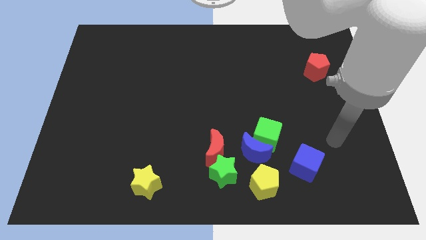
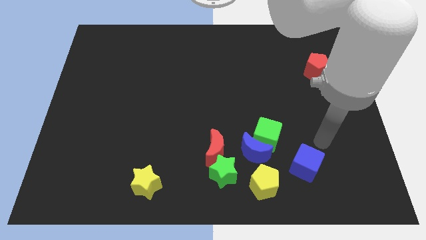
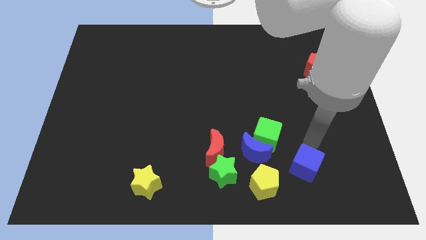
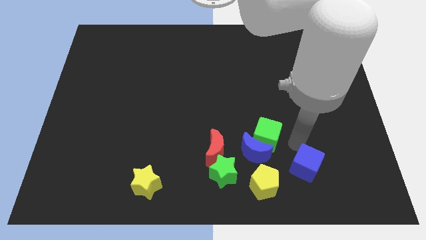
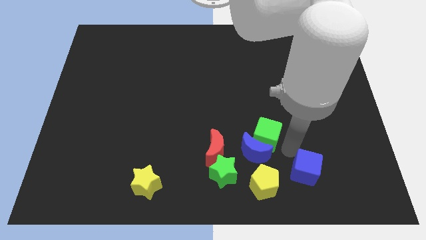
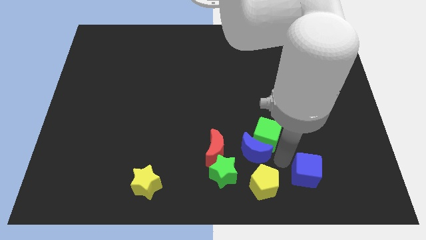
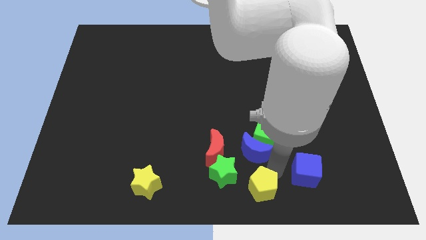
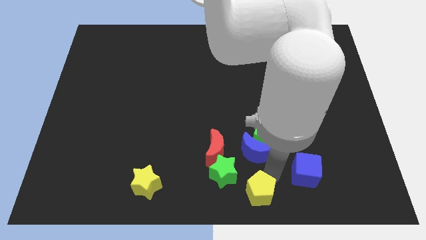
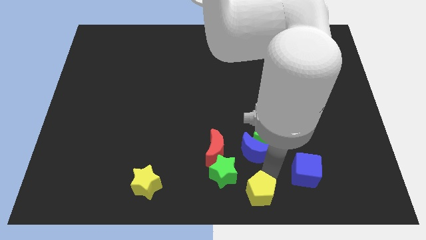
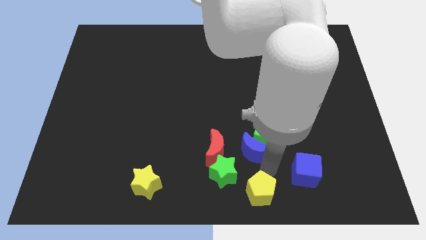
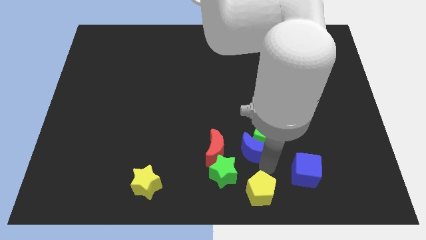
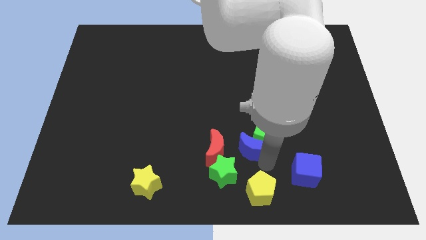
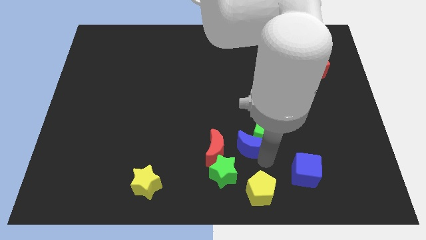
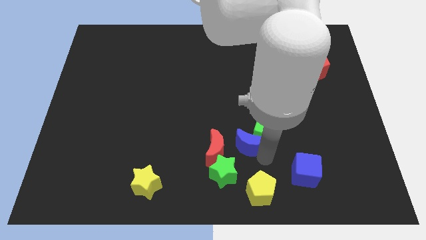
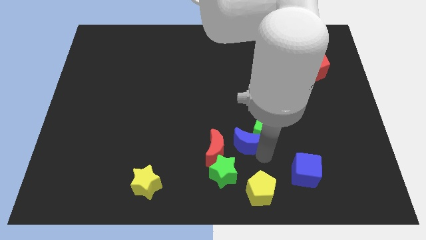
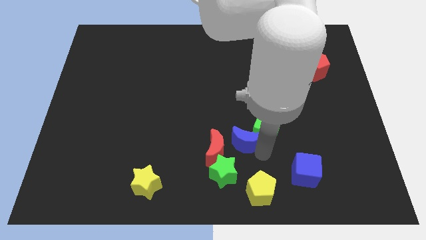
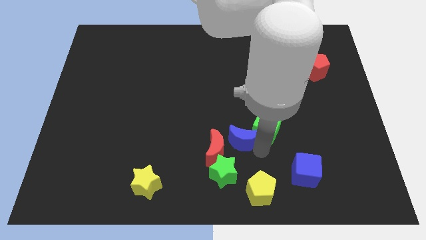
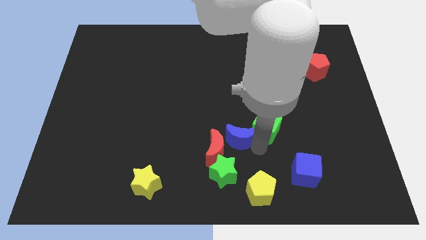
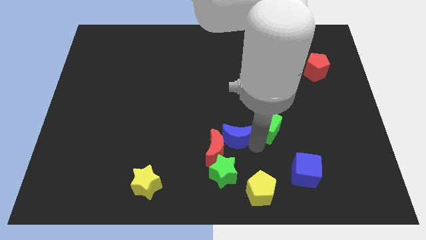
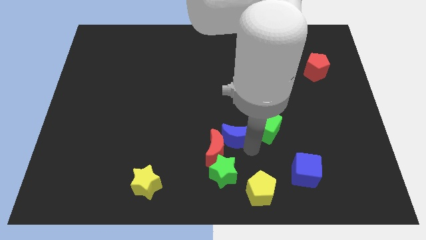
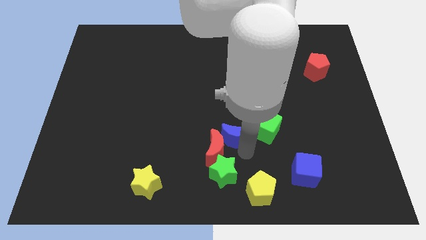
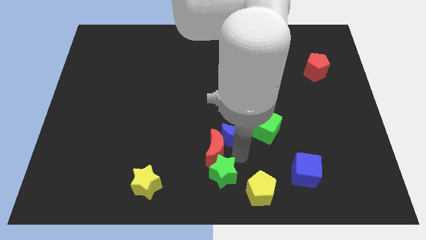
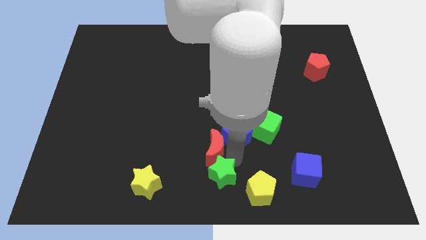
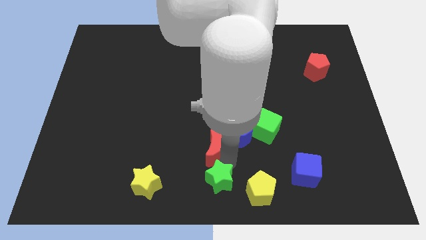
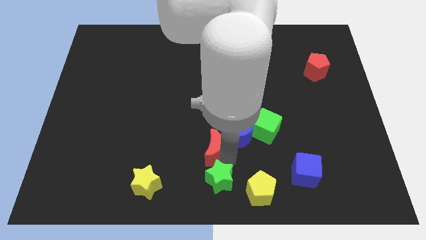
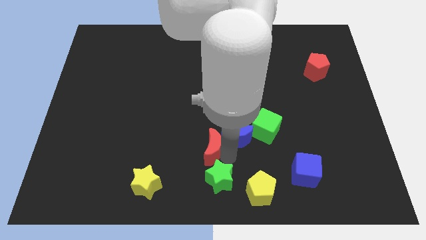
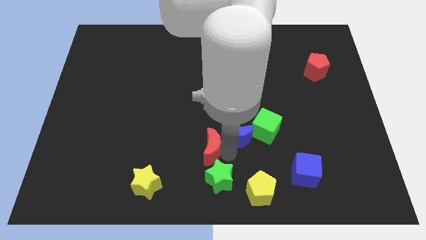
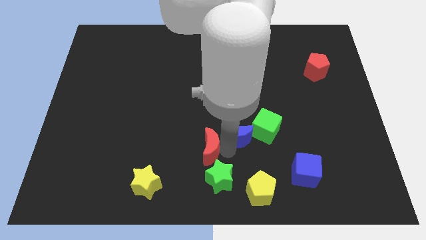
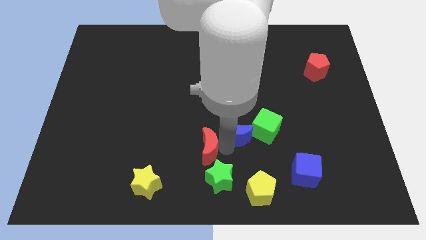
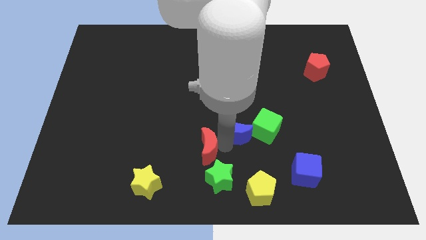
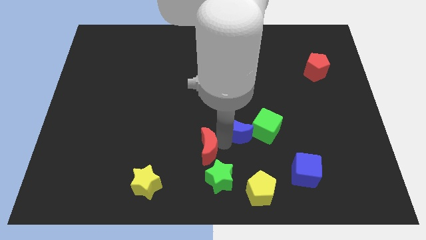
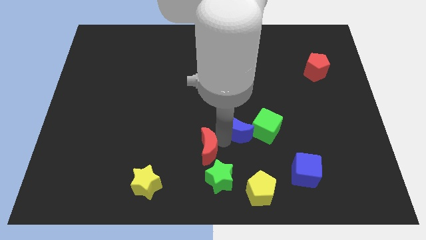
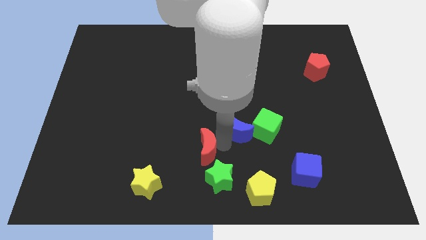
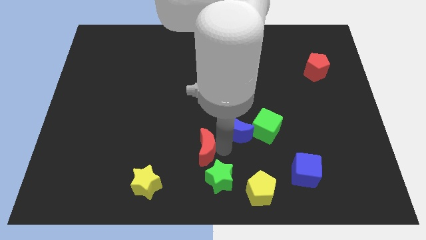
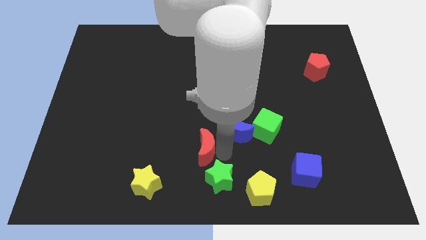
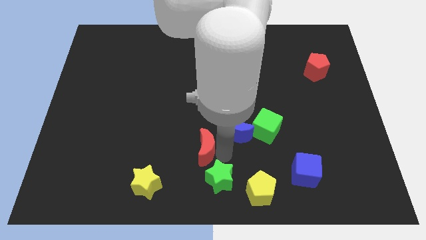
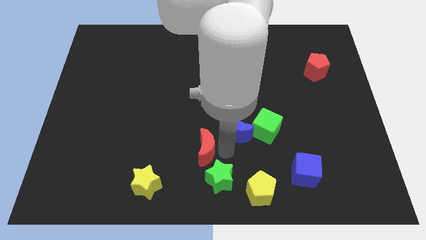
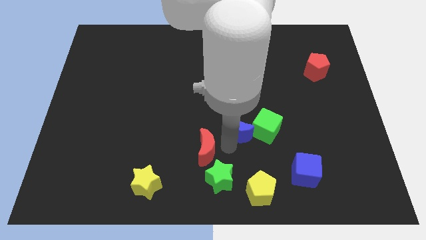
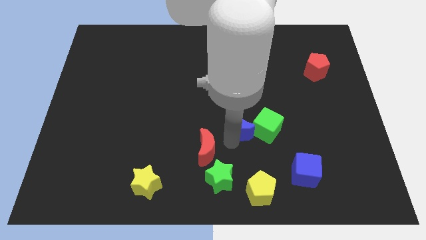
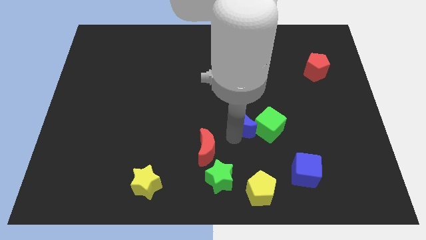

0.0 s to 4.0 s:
move the blue moon up a little bit

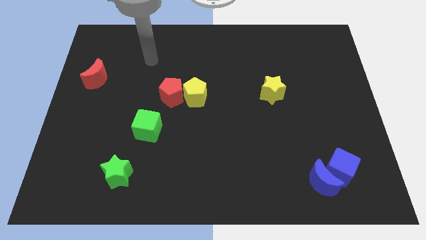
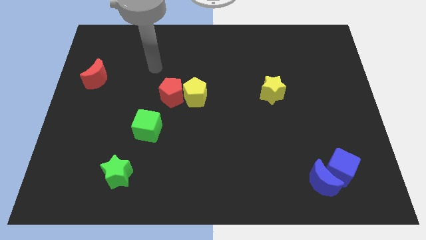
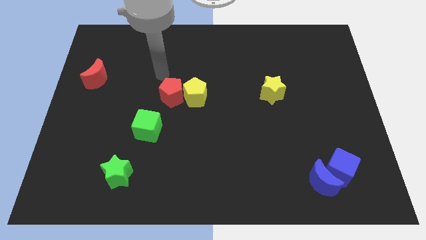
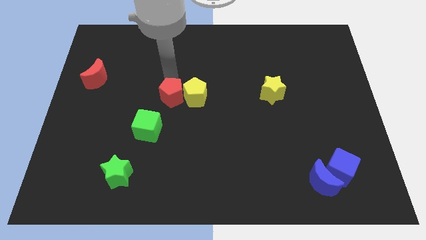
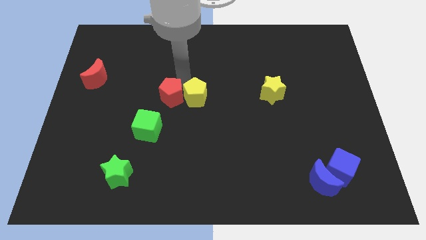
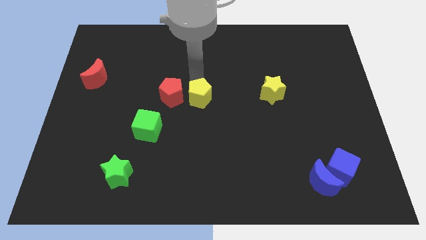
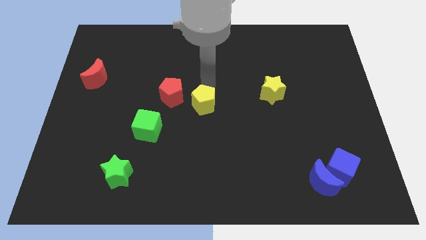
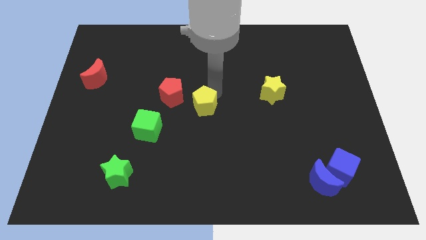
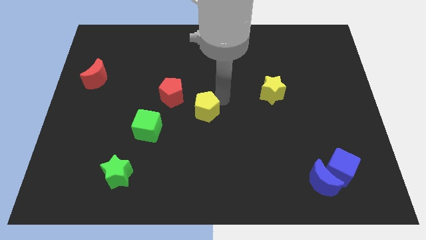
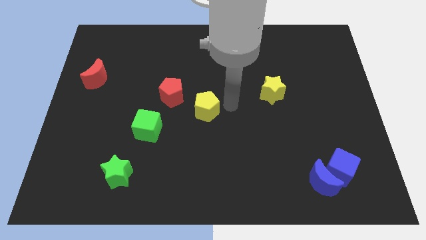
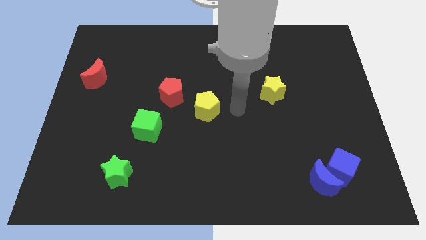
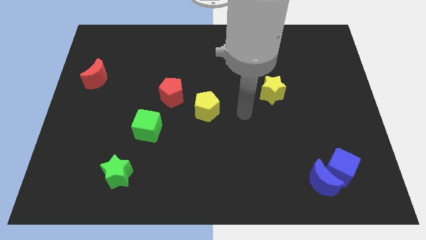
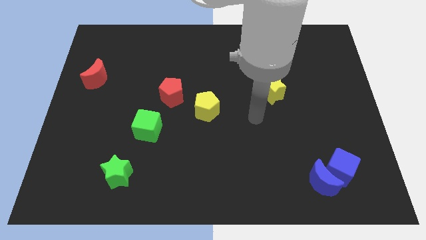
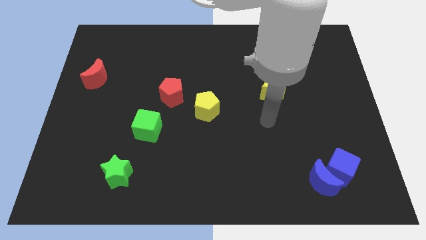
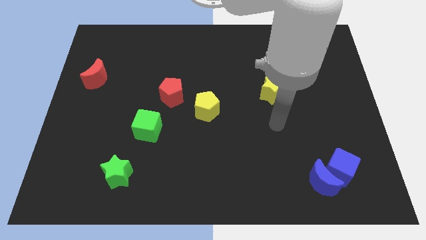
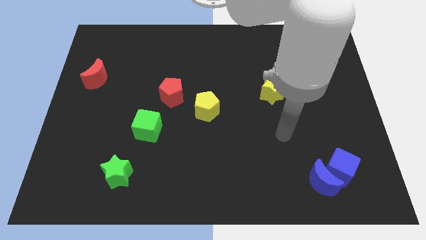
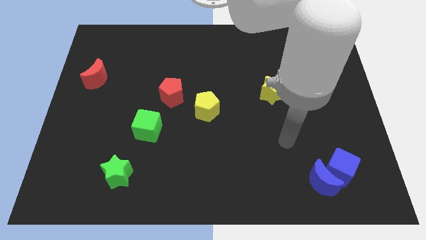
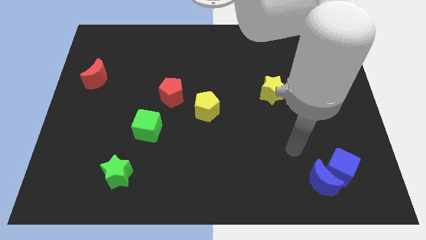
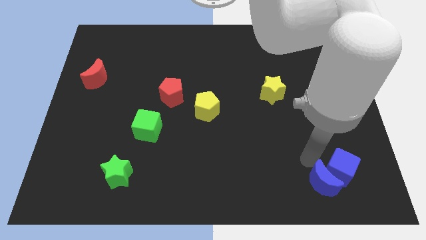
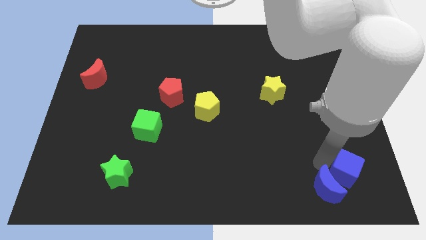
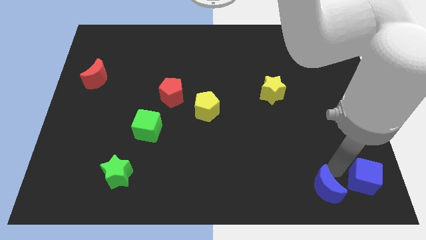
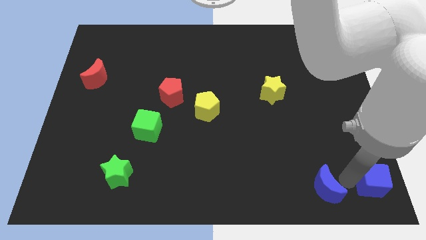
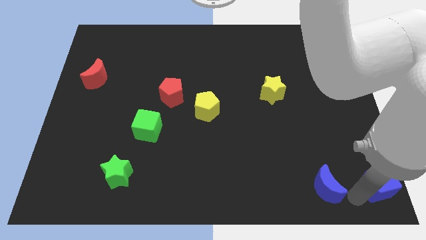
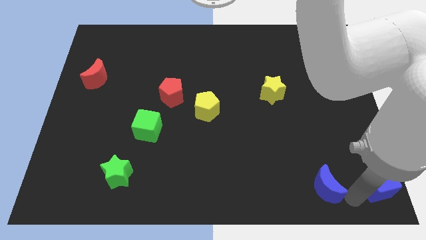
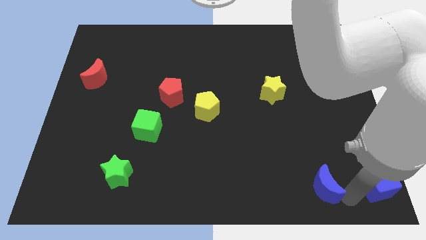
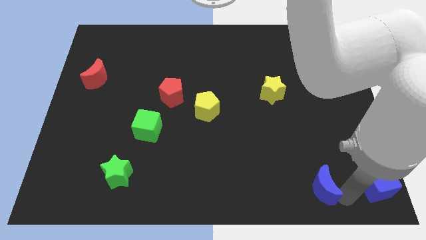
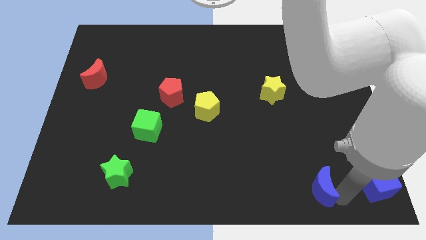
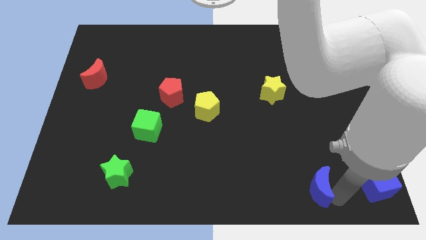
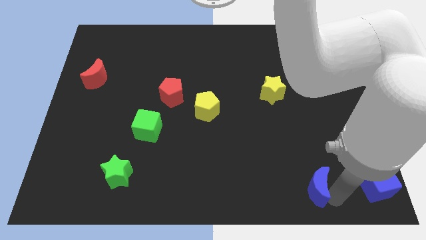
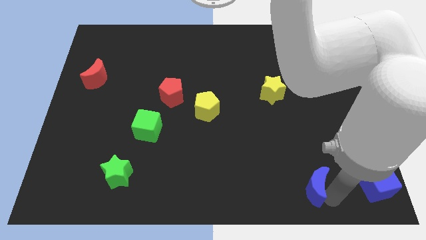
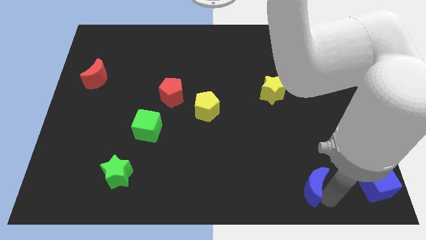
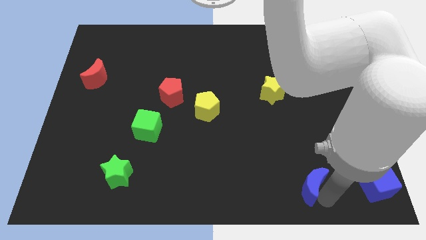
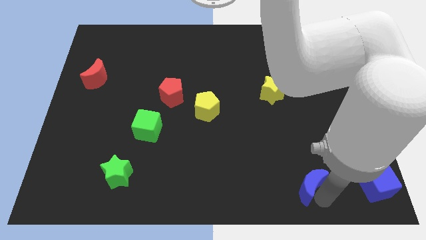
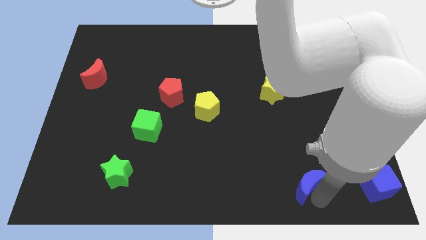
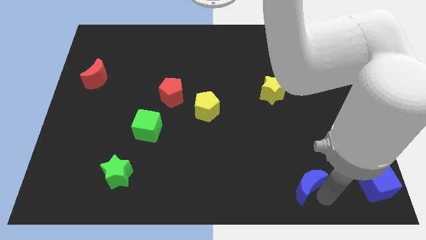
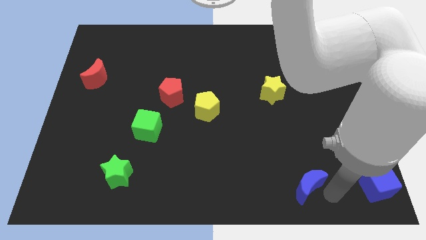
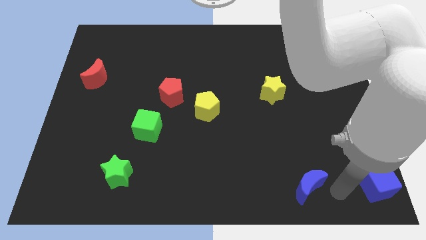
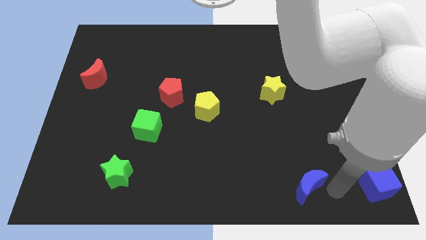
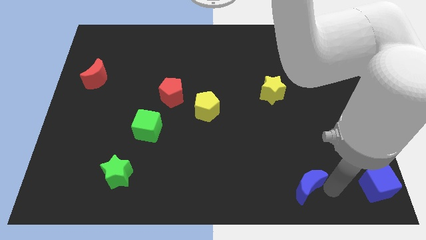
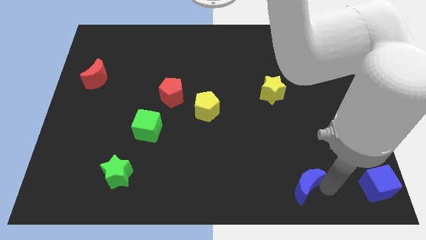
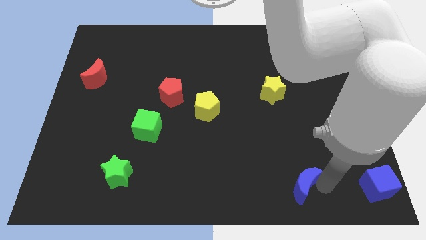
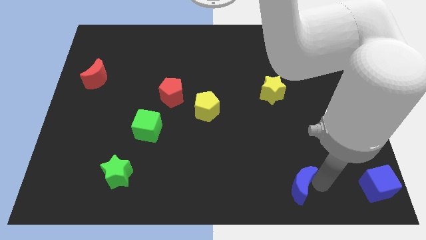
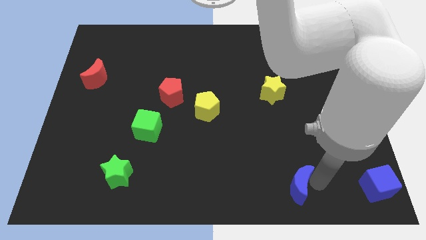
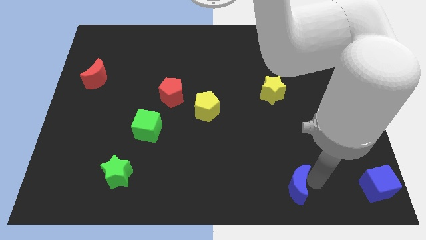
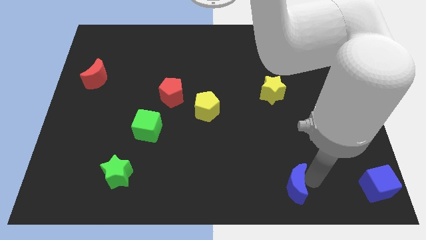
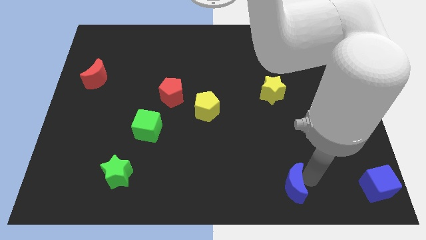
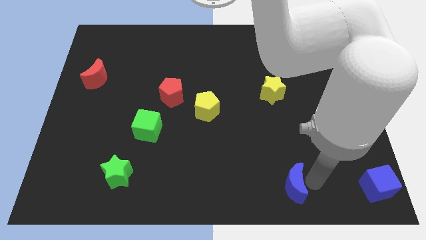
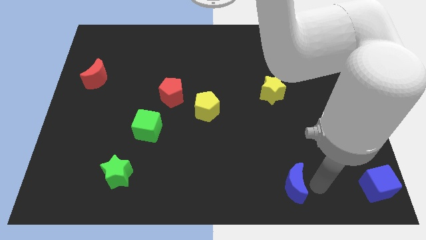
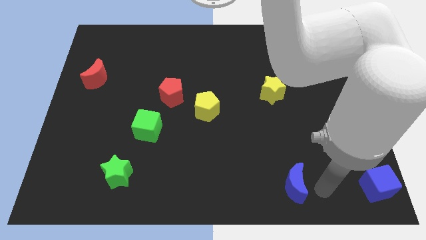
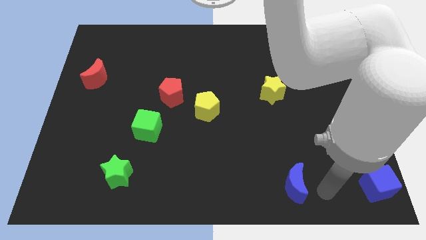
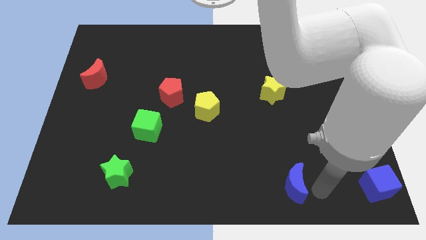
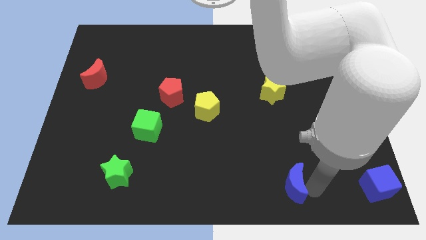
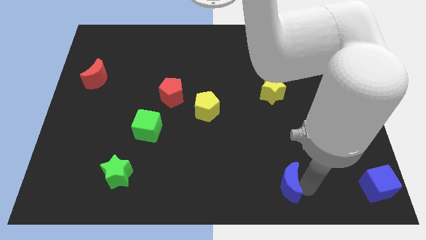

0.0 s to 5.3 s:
slightly push the blue moon to the left
